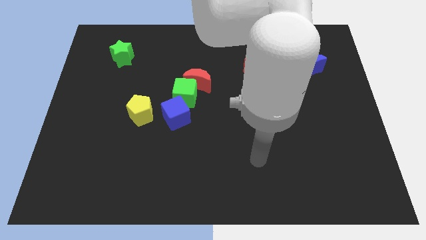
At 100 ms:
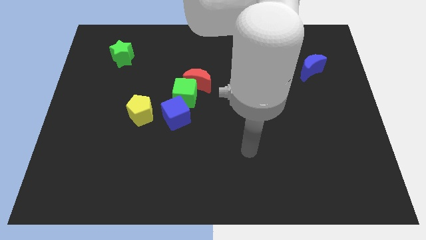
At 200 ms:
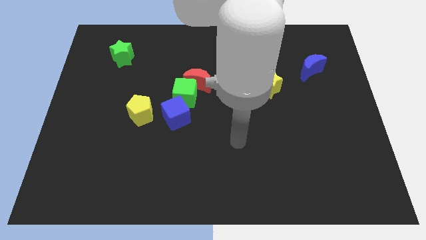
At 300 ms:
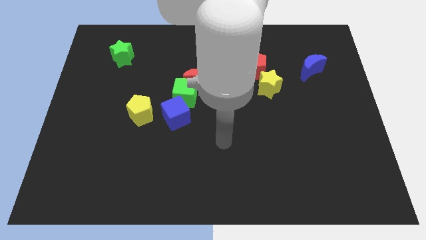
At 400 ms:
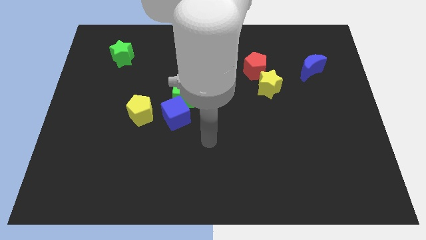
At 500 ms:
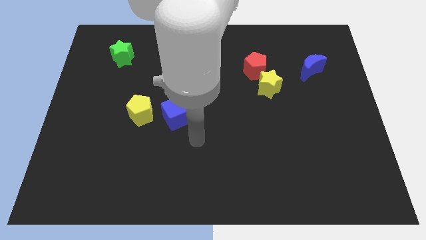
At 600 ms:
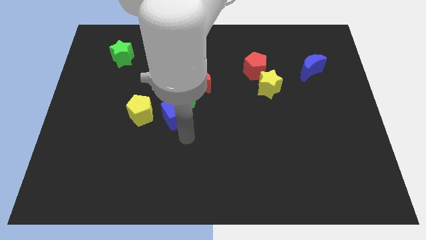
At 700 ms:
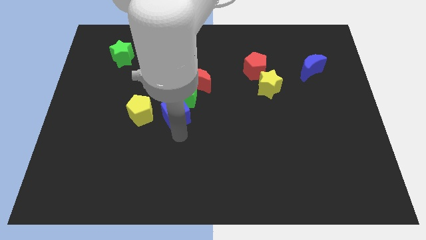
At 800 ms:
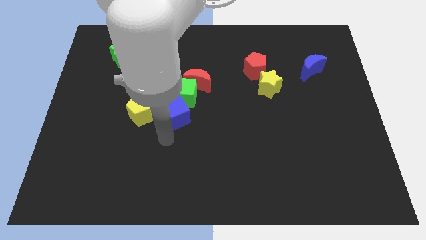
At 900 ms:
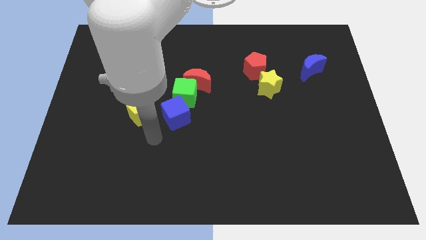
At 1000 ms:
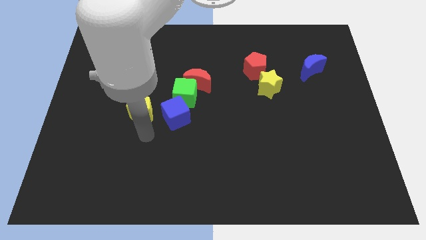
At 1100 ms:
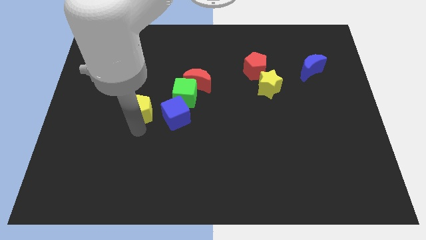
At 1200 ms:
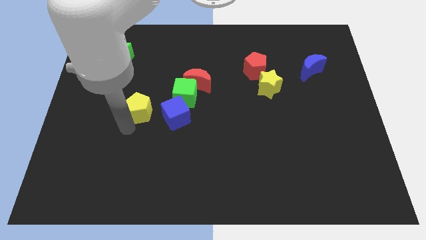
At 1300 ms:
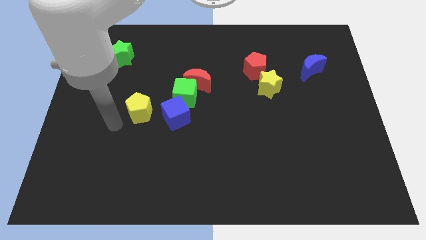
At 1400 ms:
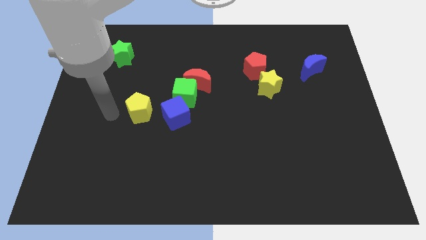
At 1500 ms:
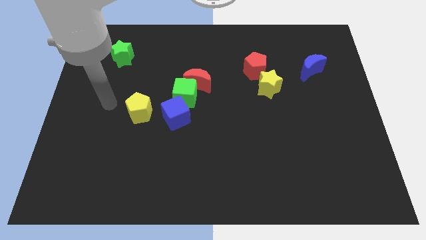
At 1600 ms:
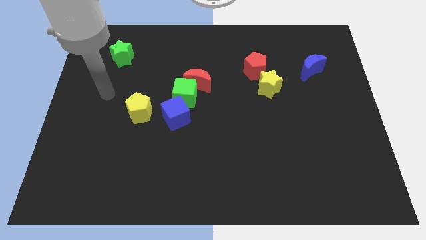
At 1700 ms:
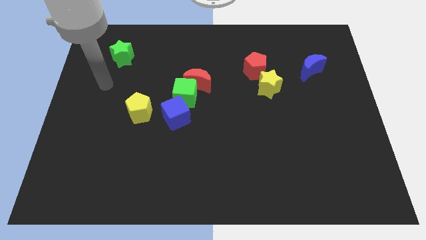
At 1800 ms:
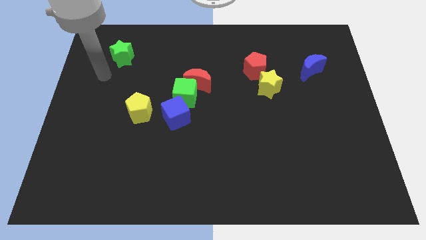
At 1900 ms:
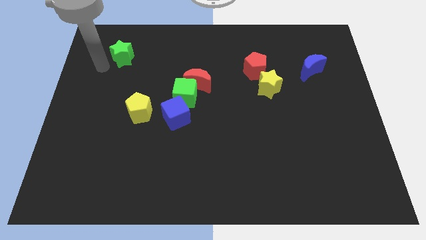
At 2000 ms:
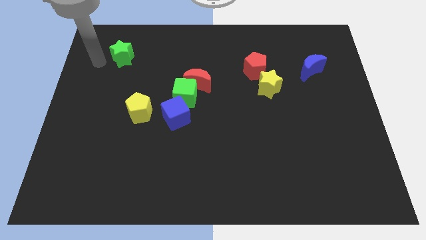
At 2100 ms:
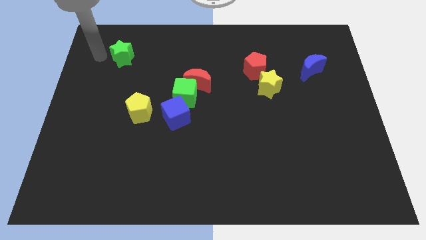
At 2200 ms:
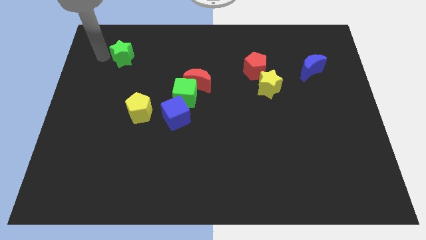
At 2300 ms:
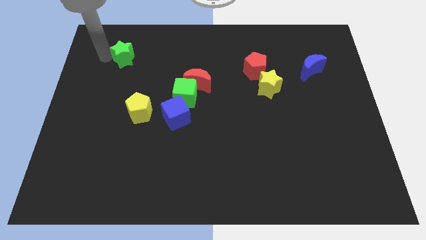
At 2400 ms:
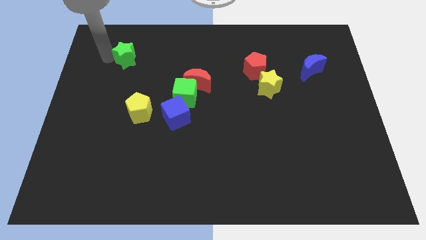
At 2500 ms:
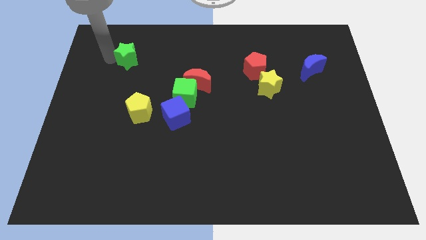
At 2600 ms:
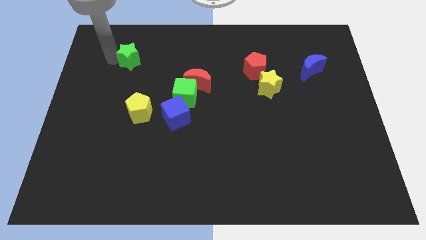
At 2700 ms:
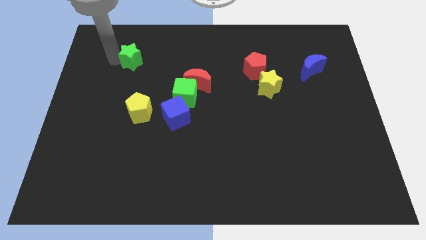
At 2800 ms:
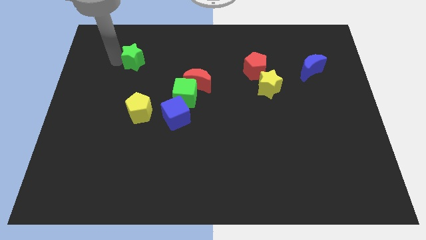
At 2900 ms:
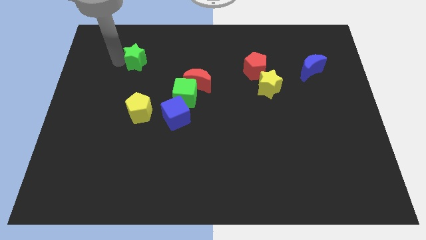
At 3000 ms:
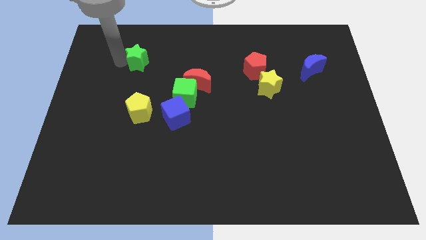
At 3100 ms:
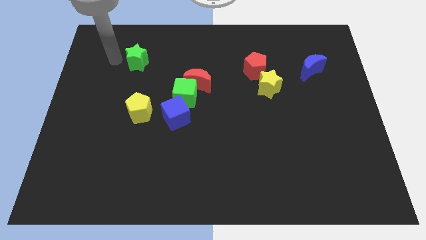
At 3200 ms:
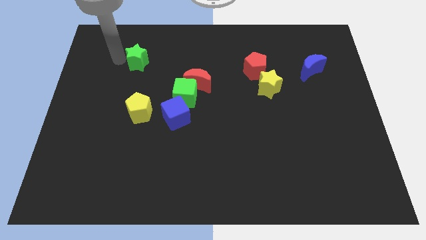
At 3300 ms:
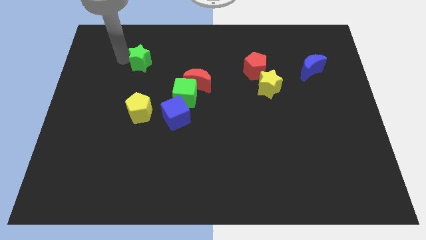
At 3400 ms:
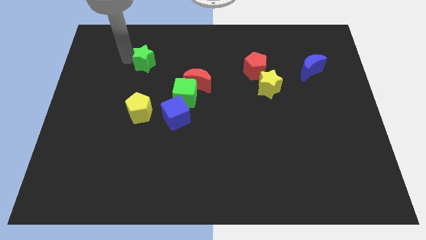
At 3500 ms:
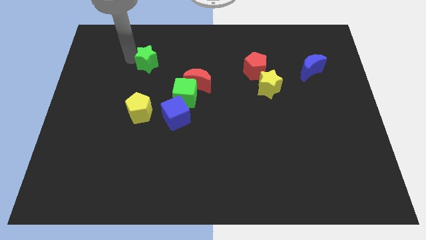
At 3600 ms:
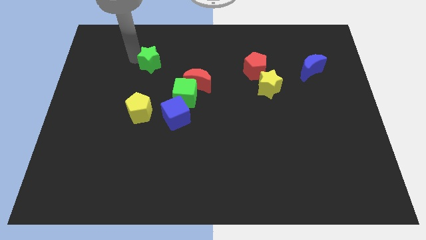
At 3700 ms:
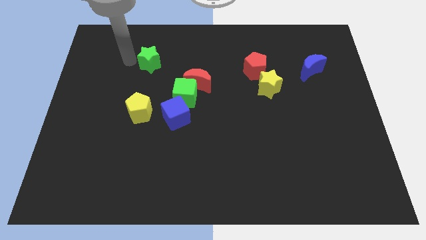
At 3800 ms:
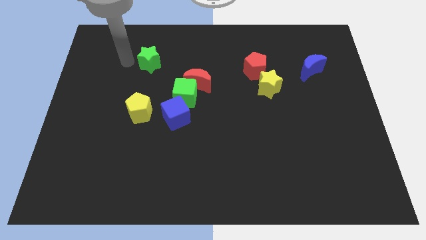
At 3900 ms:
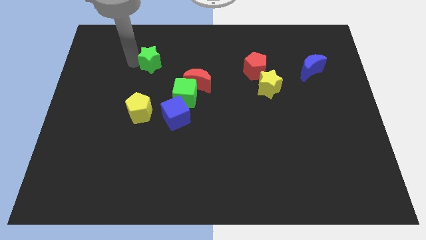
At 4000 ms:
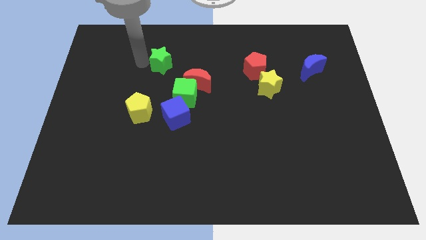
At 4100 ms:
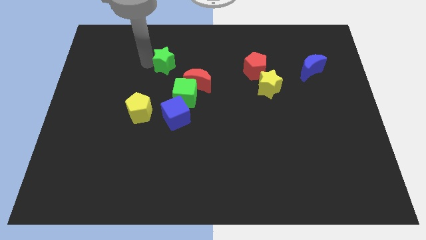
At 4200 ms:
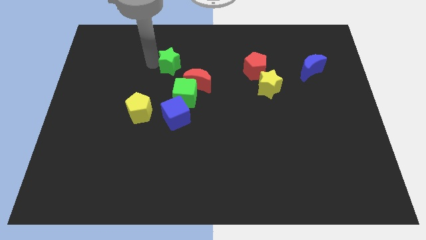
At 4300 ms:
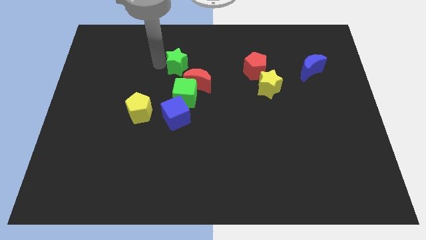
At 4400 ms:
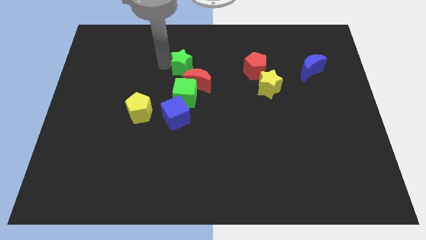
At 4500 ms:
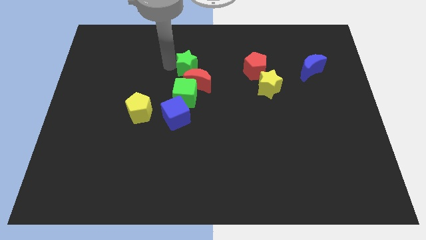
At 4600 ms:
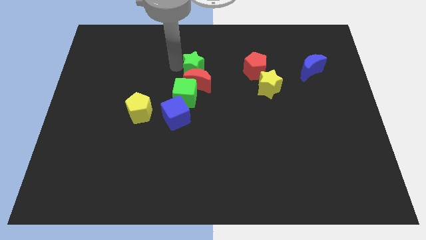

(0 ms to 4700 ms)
push the green star left of the red pentagon

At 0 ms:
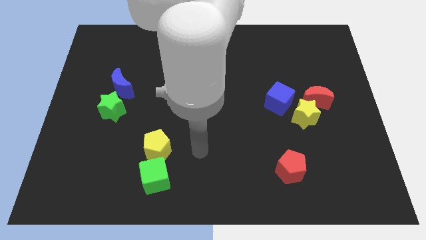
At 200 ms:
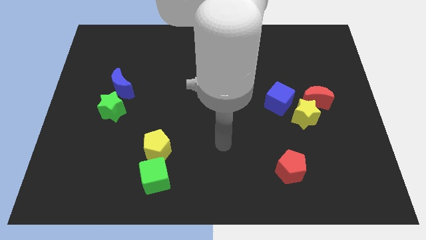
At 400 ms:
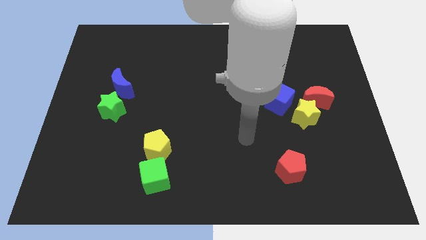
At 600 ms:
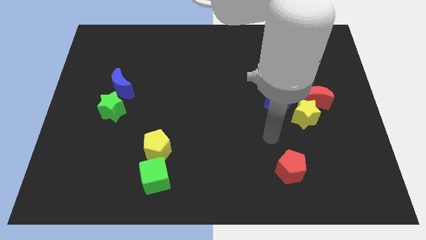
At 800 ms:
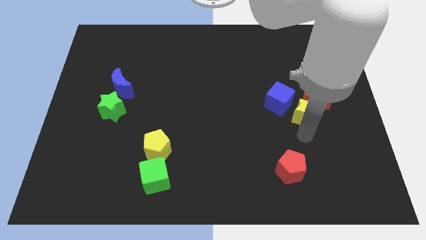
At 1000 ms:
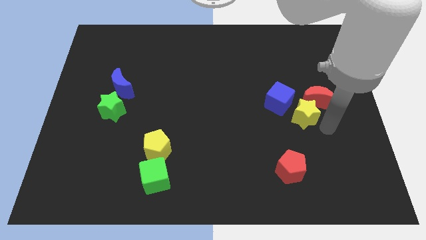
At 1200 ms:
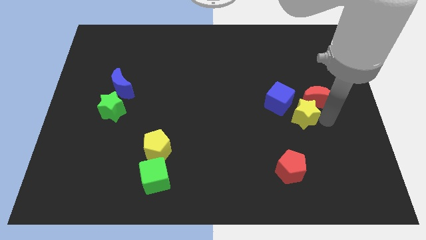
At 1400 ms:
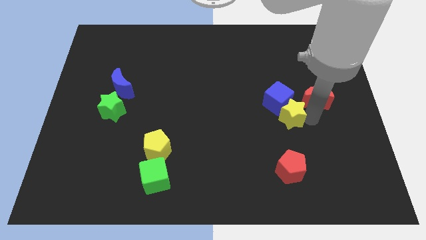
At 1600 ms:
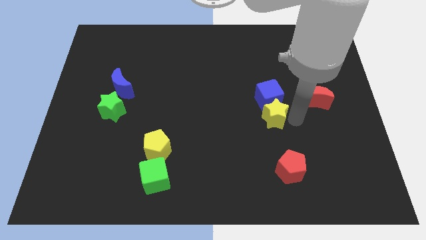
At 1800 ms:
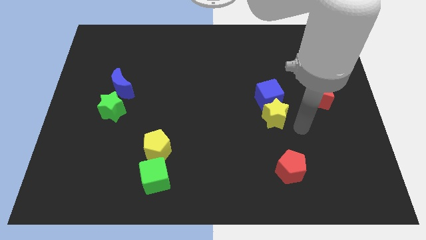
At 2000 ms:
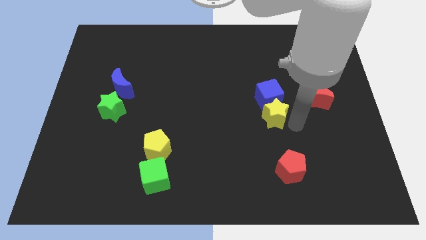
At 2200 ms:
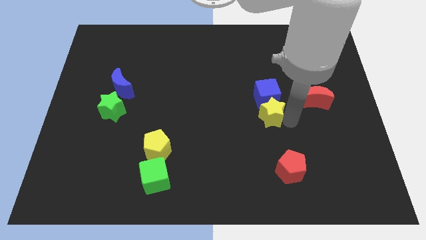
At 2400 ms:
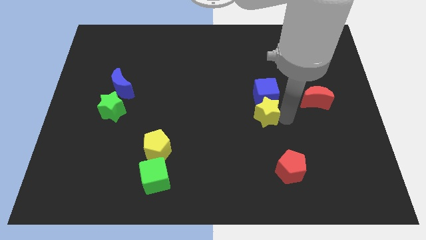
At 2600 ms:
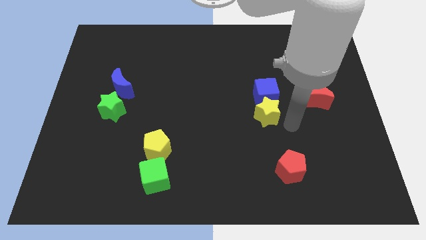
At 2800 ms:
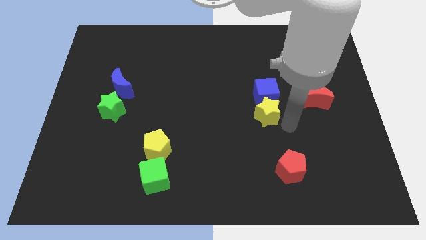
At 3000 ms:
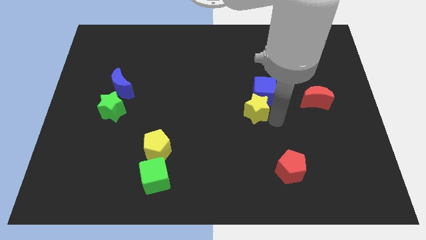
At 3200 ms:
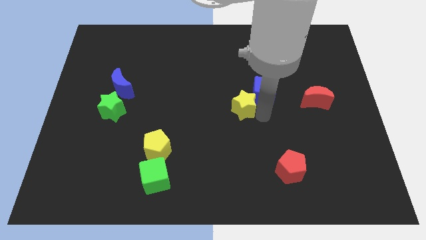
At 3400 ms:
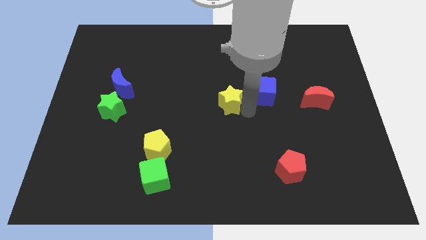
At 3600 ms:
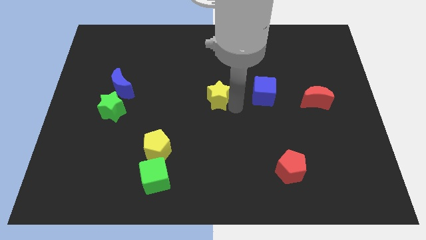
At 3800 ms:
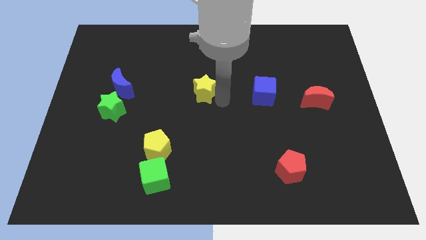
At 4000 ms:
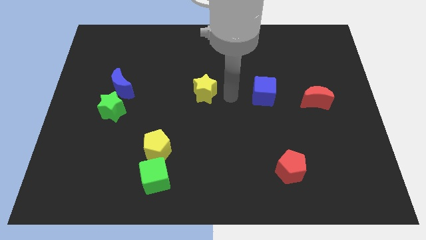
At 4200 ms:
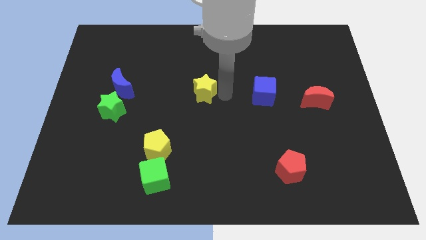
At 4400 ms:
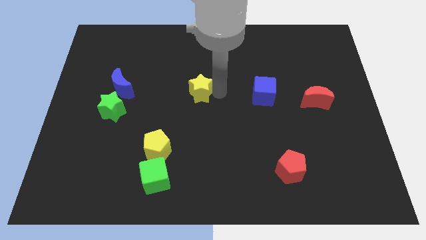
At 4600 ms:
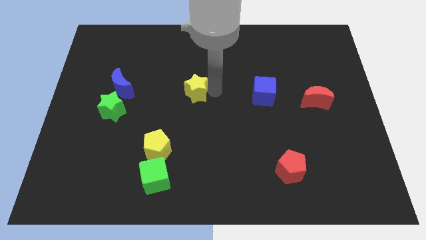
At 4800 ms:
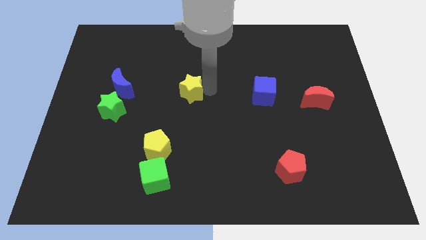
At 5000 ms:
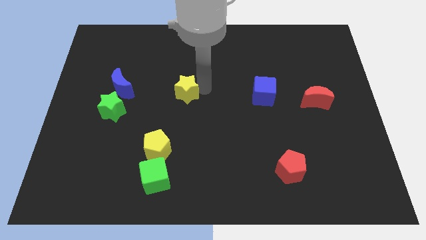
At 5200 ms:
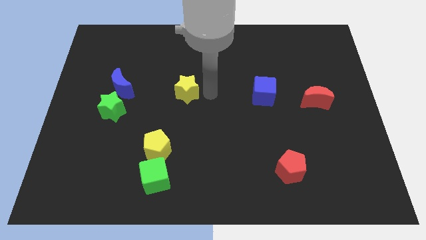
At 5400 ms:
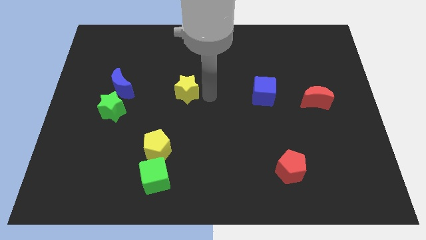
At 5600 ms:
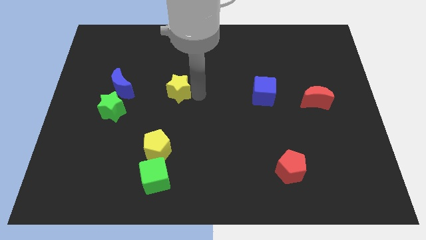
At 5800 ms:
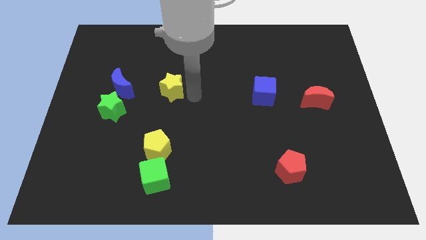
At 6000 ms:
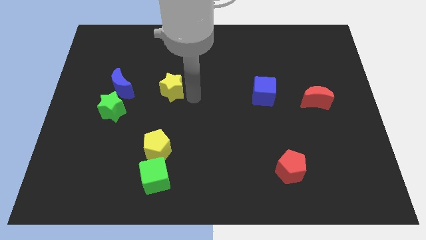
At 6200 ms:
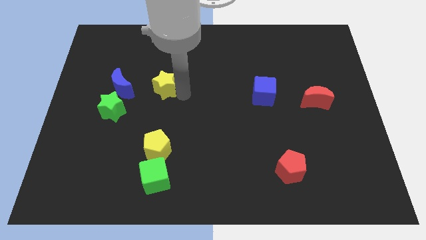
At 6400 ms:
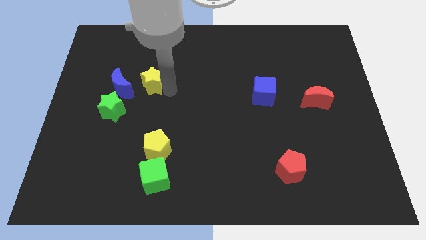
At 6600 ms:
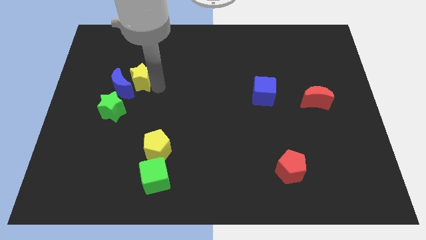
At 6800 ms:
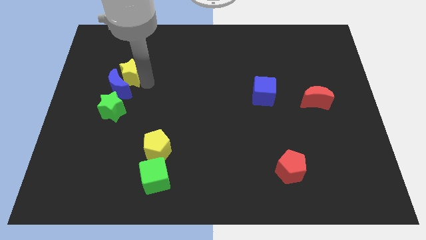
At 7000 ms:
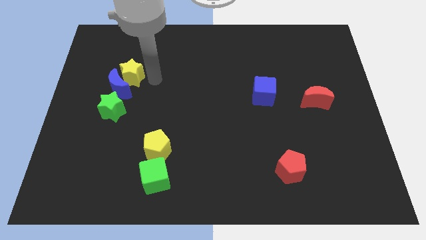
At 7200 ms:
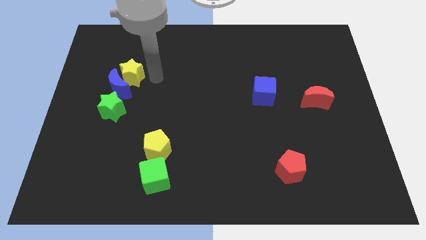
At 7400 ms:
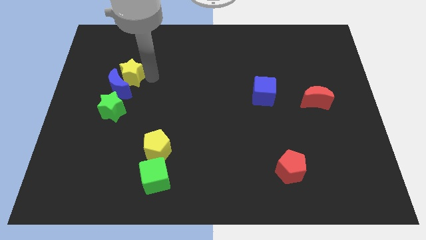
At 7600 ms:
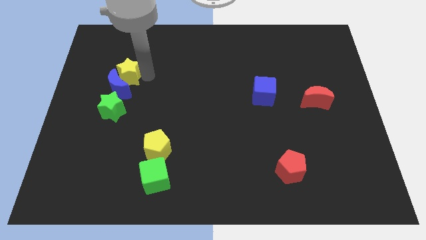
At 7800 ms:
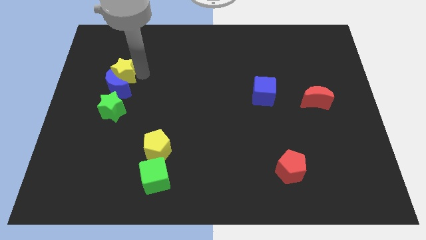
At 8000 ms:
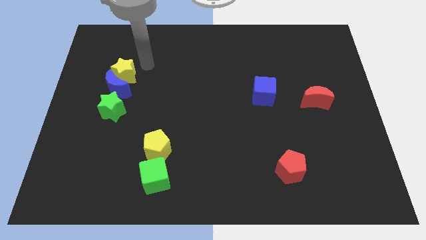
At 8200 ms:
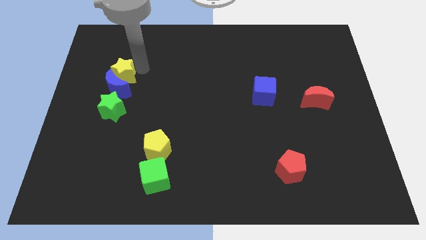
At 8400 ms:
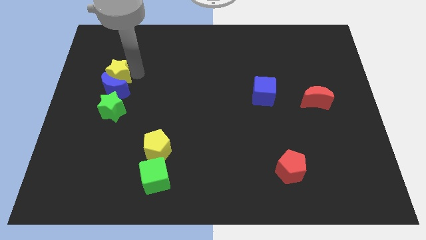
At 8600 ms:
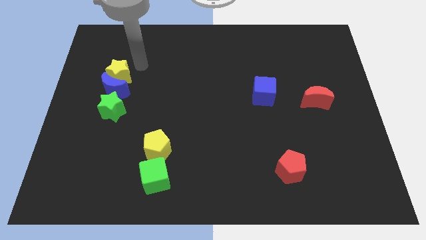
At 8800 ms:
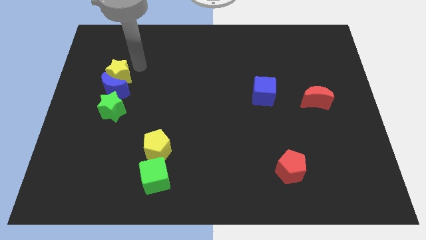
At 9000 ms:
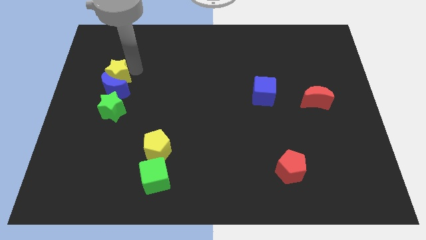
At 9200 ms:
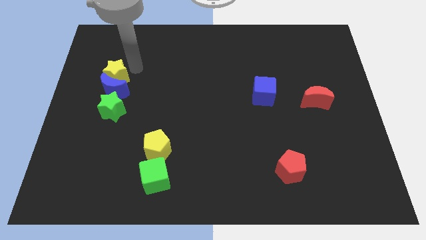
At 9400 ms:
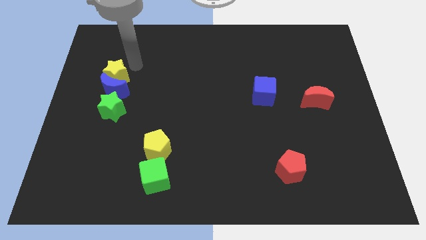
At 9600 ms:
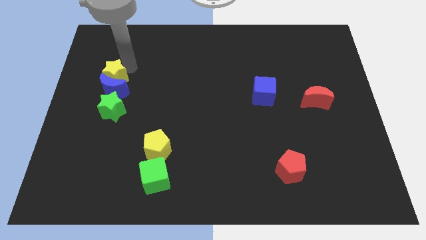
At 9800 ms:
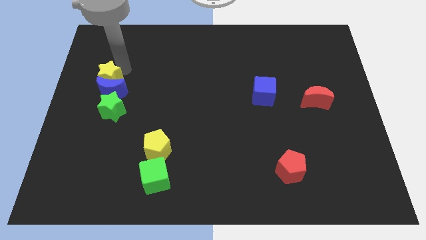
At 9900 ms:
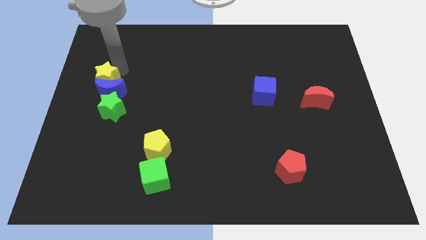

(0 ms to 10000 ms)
slide the yellow star to the top left side of the green star
